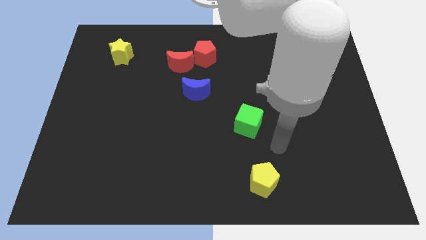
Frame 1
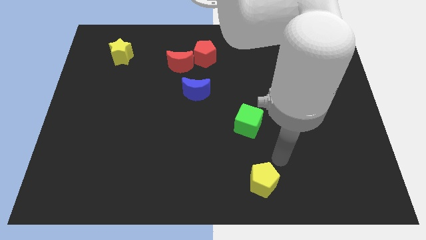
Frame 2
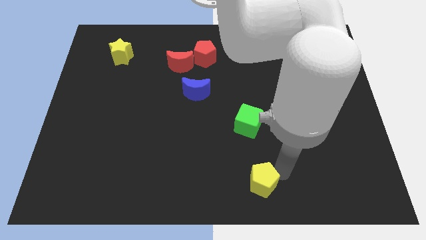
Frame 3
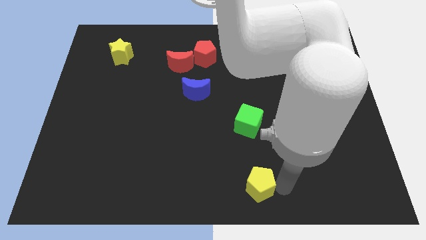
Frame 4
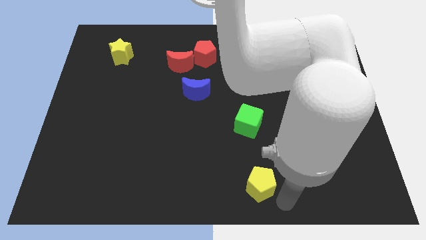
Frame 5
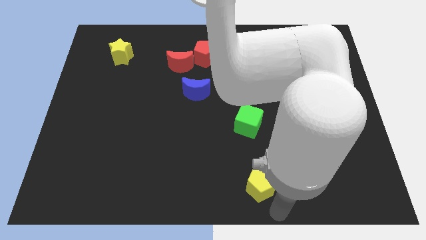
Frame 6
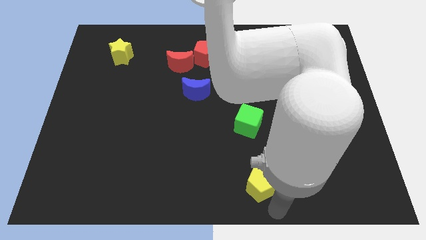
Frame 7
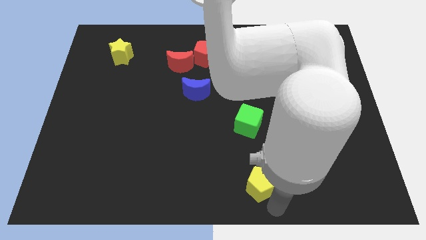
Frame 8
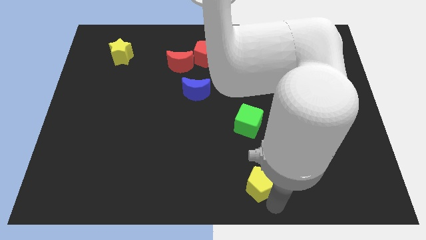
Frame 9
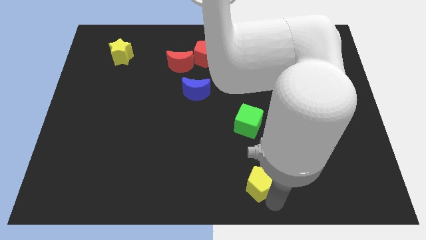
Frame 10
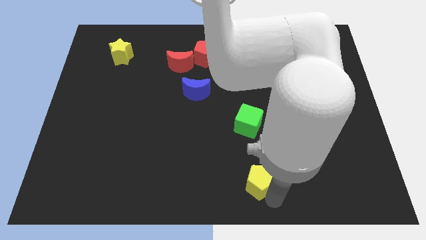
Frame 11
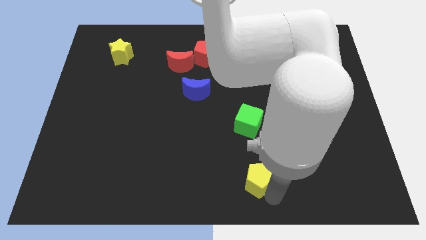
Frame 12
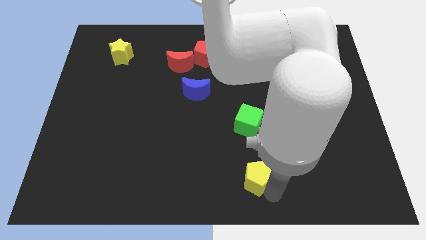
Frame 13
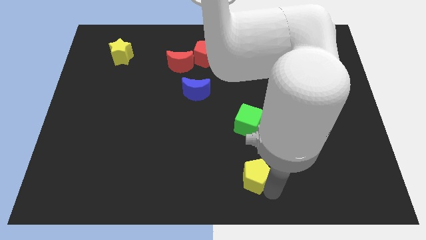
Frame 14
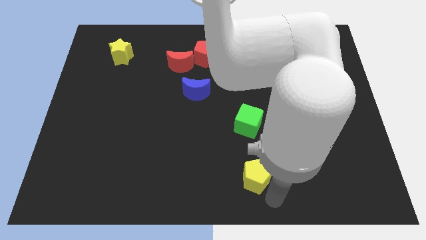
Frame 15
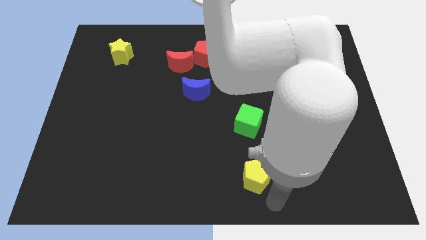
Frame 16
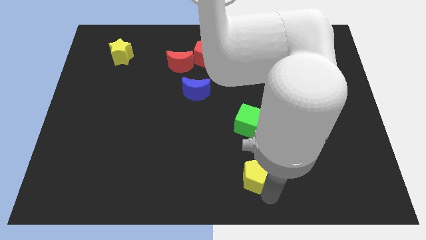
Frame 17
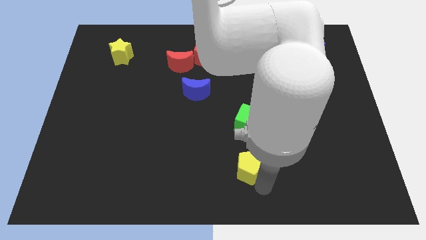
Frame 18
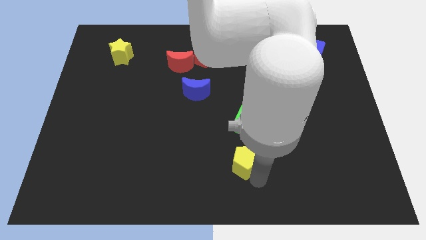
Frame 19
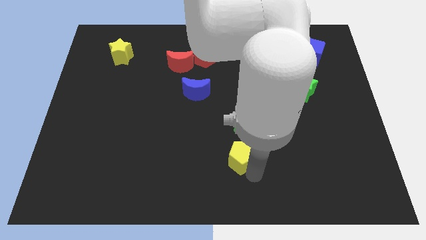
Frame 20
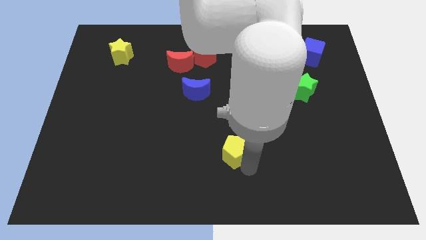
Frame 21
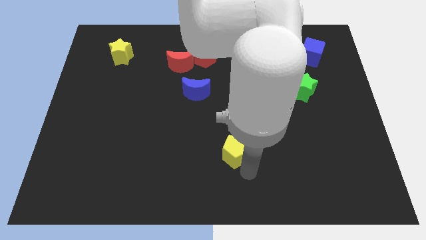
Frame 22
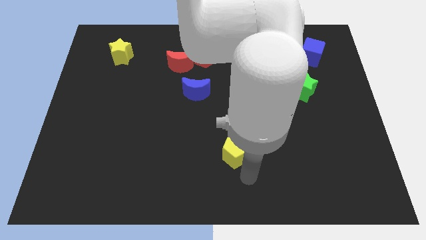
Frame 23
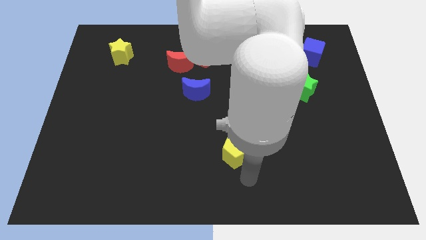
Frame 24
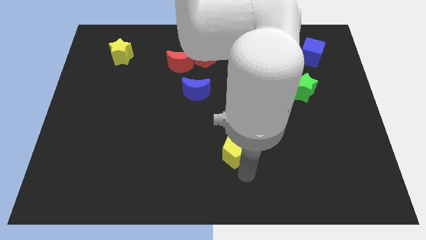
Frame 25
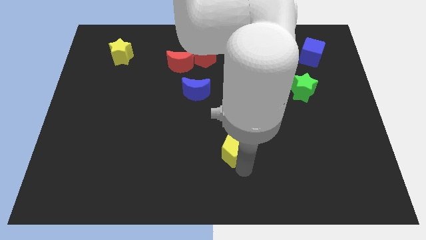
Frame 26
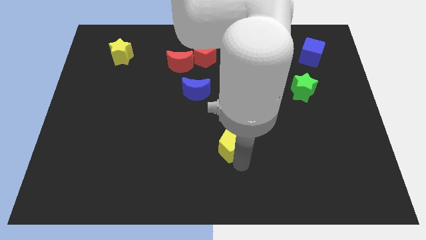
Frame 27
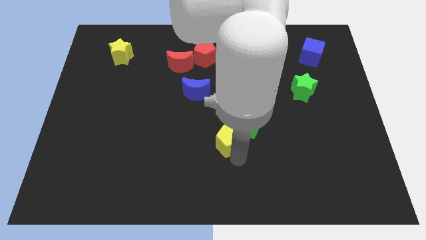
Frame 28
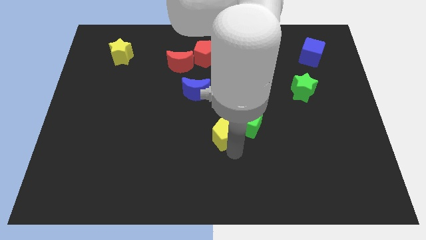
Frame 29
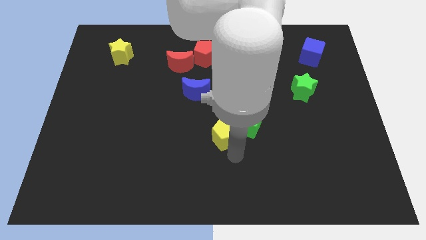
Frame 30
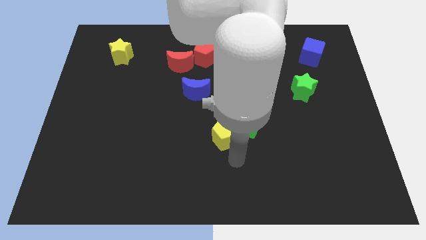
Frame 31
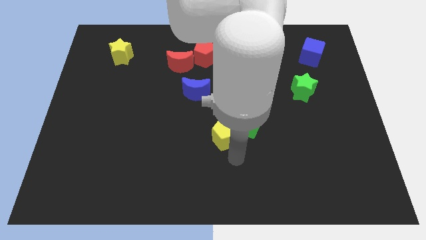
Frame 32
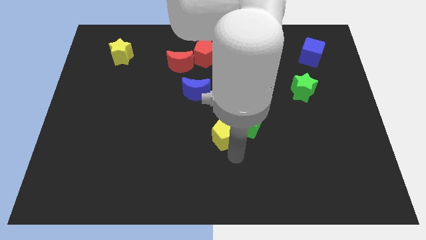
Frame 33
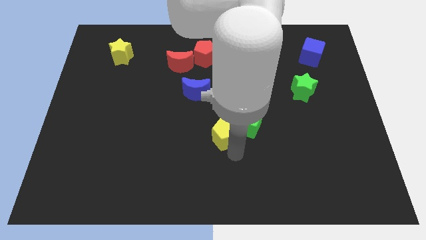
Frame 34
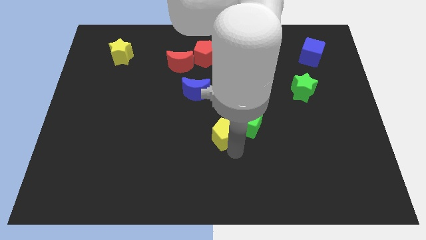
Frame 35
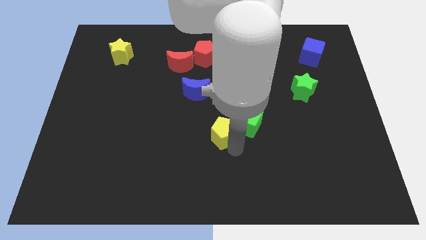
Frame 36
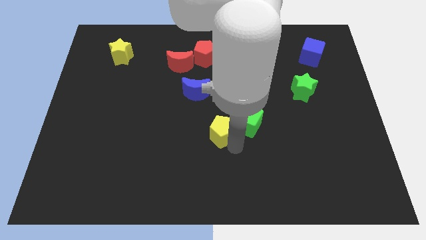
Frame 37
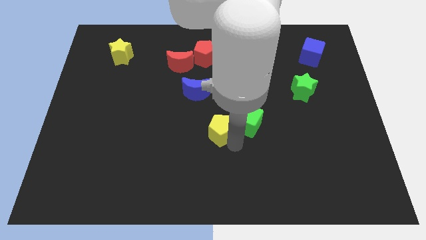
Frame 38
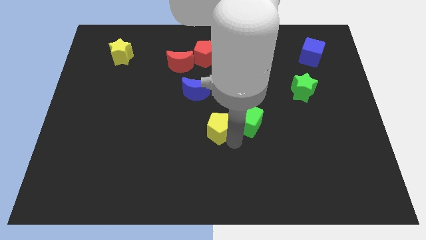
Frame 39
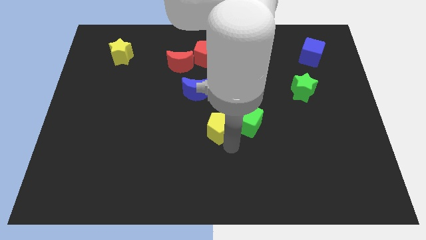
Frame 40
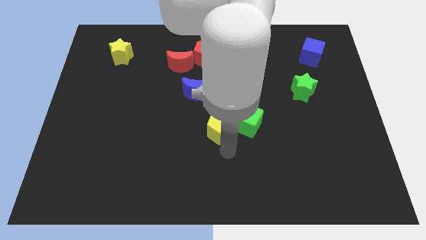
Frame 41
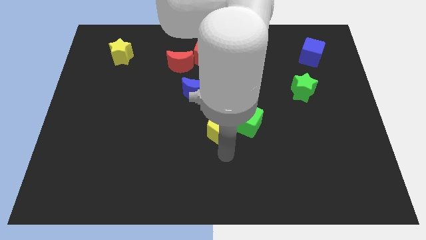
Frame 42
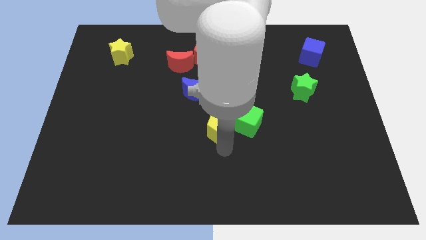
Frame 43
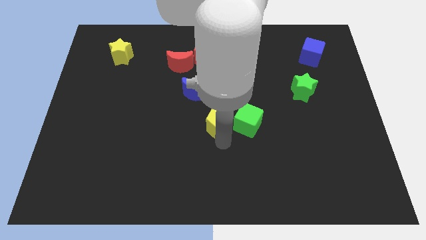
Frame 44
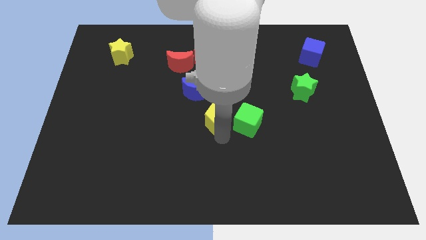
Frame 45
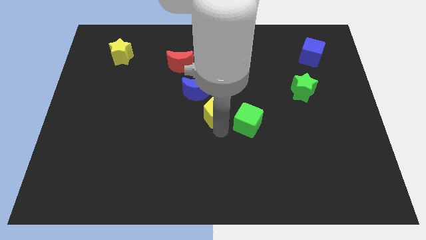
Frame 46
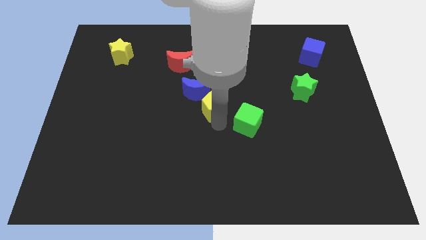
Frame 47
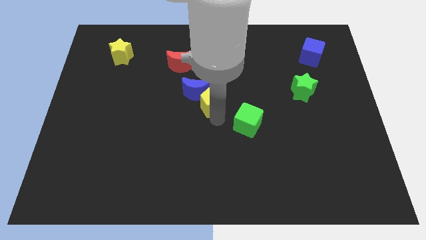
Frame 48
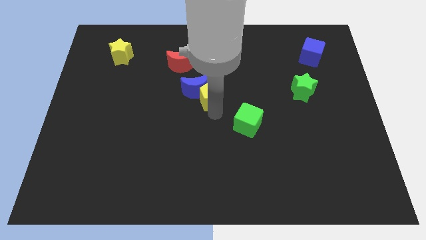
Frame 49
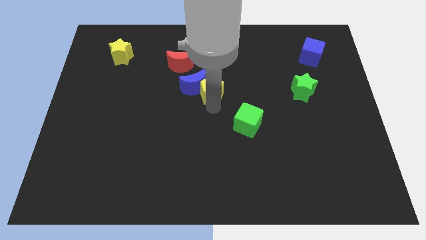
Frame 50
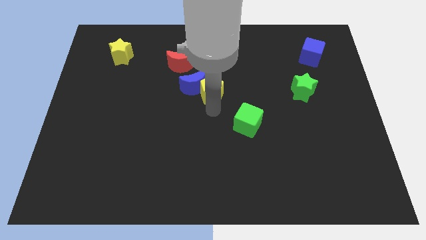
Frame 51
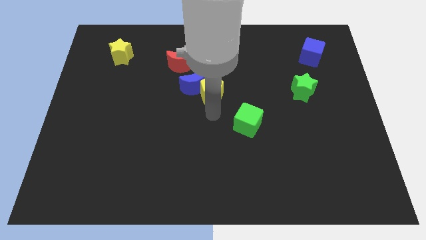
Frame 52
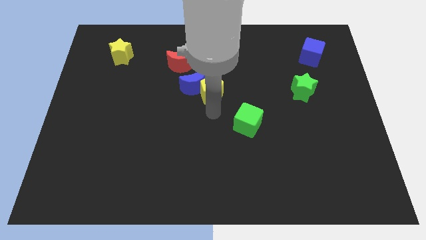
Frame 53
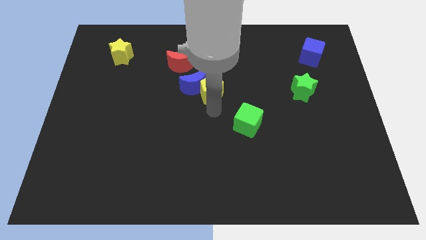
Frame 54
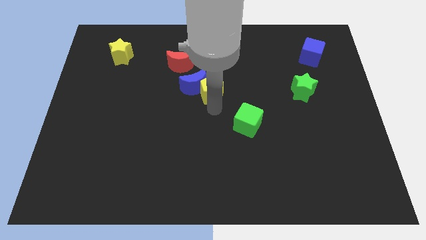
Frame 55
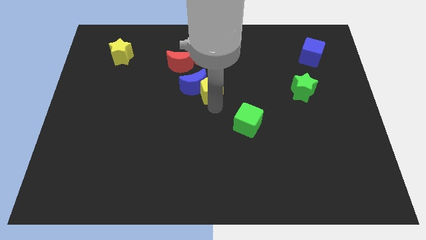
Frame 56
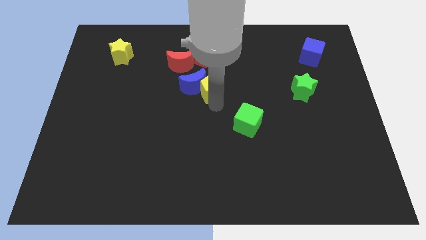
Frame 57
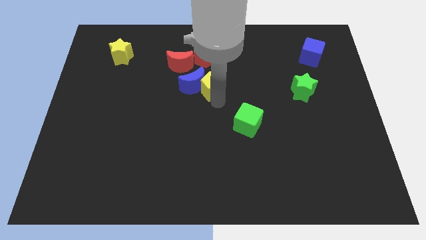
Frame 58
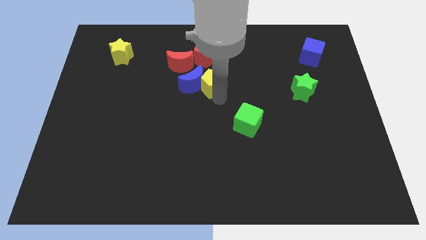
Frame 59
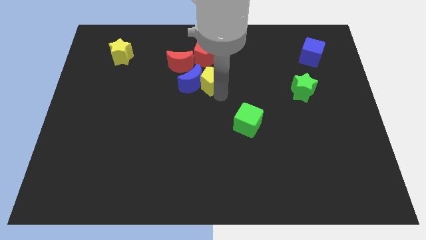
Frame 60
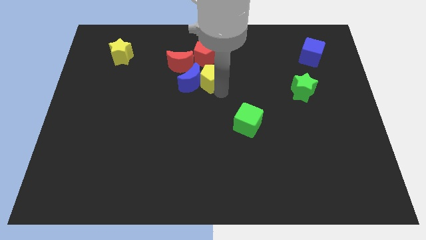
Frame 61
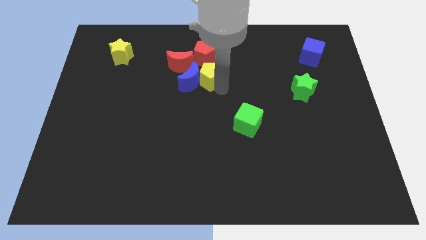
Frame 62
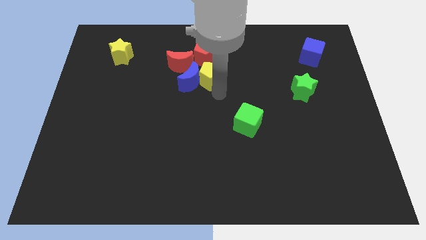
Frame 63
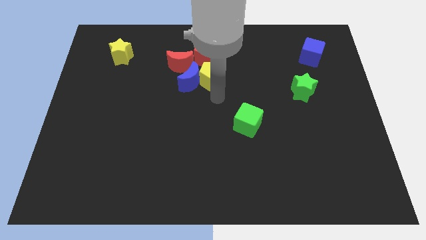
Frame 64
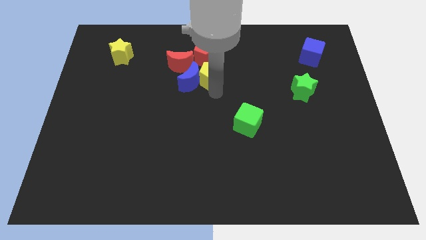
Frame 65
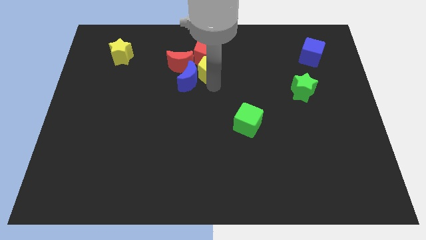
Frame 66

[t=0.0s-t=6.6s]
push the yellow pentagon towards the red pentagon

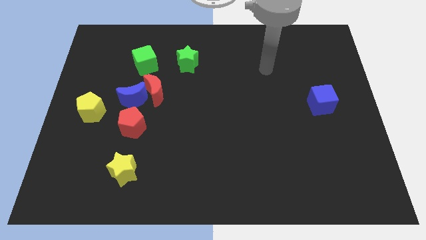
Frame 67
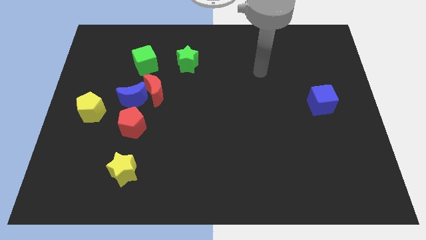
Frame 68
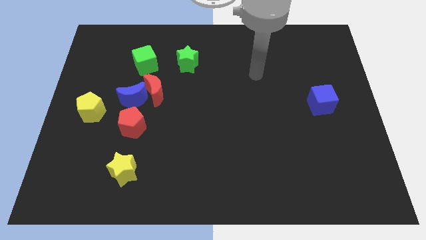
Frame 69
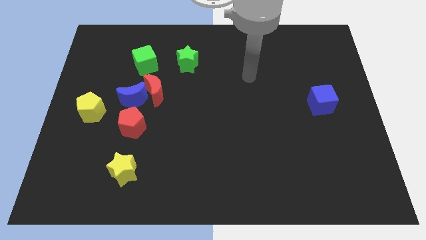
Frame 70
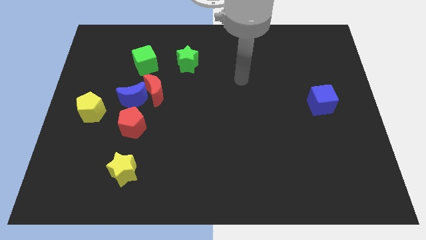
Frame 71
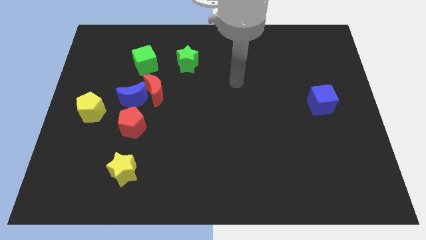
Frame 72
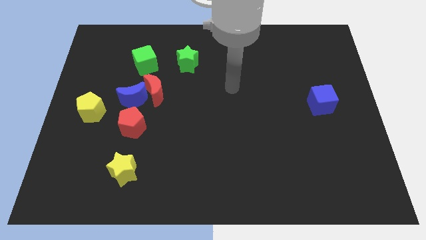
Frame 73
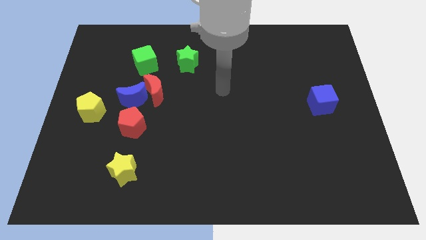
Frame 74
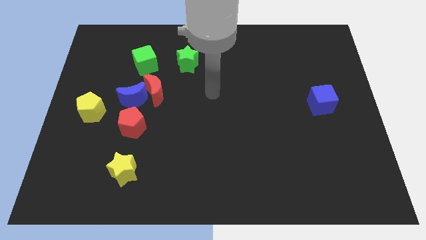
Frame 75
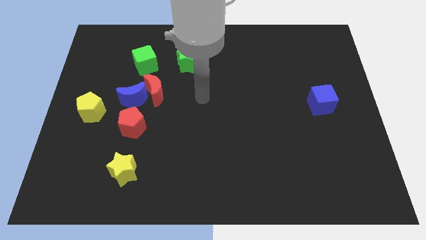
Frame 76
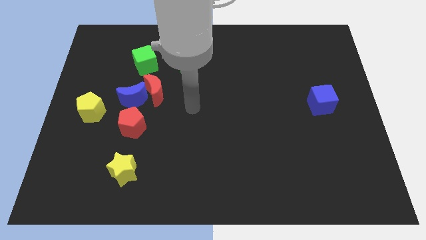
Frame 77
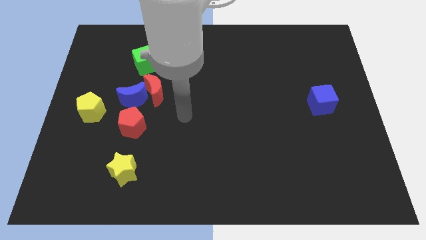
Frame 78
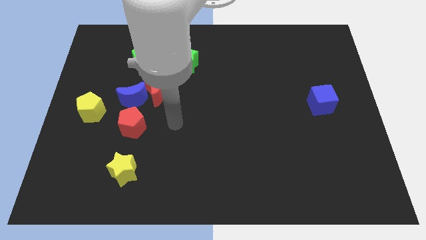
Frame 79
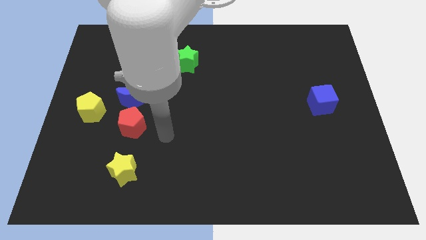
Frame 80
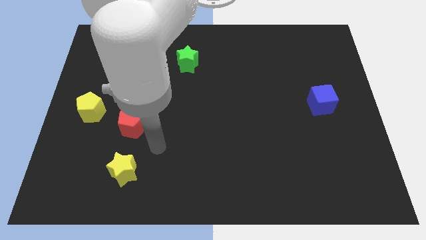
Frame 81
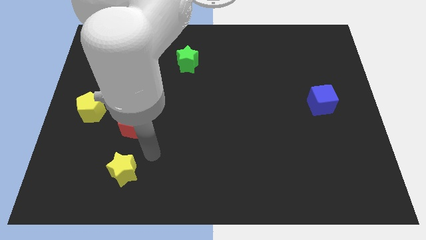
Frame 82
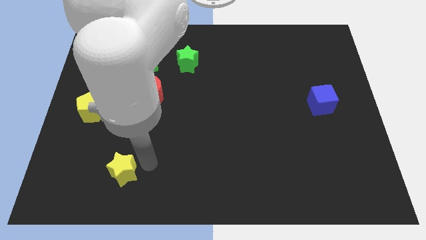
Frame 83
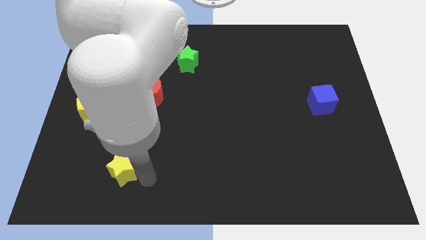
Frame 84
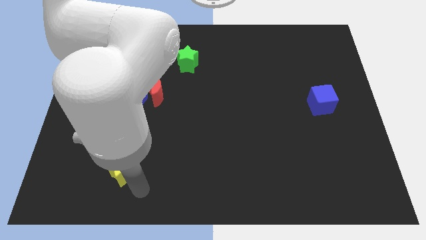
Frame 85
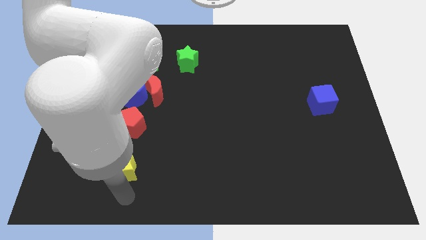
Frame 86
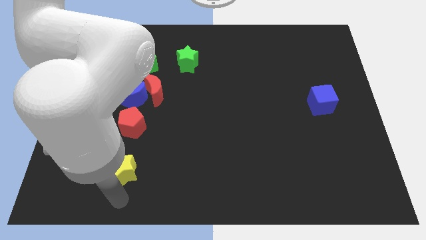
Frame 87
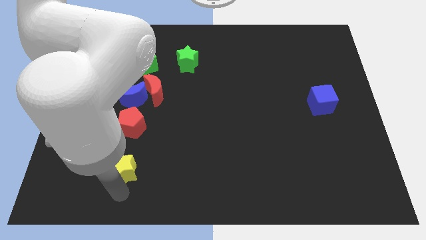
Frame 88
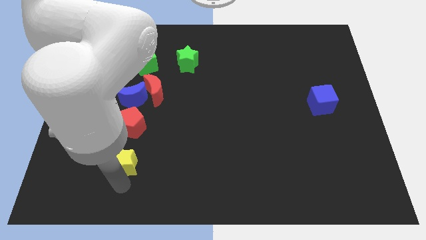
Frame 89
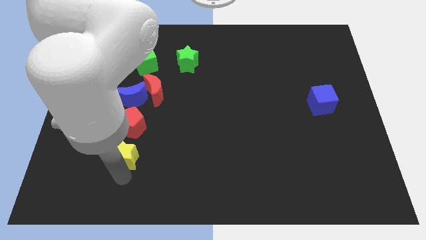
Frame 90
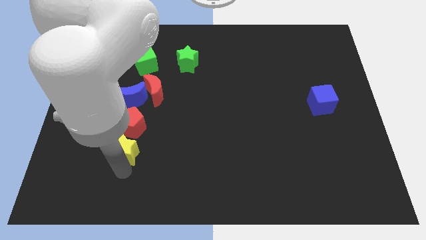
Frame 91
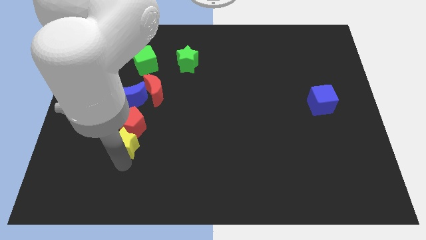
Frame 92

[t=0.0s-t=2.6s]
put the yellow star towards the red pentagon
